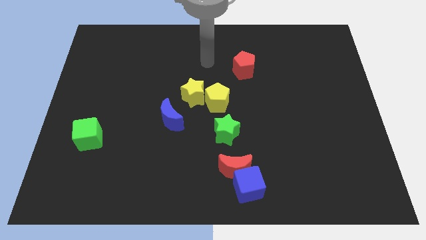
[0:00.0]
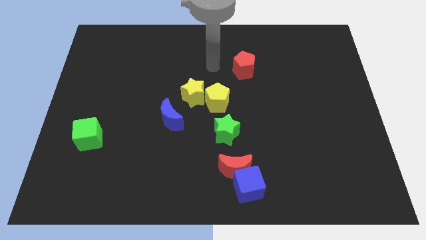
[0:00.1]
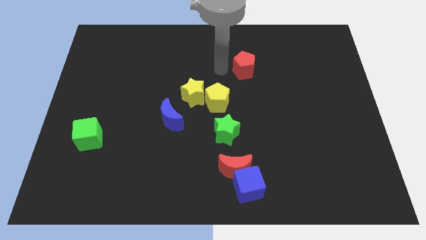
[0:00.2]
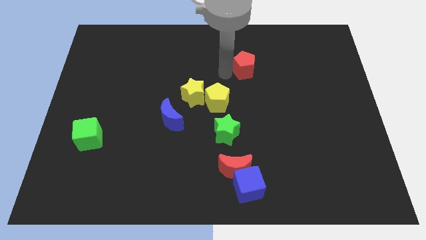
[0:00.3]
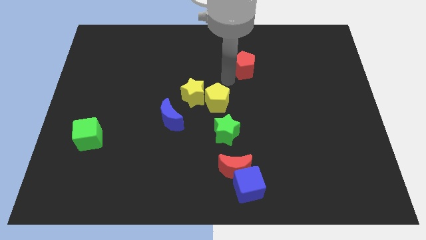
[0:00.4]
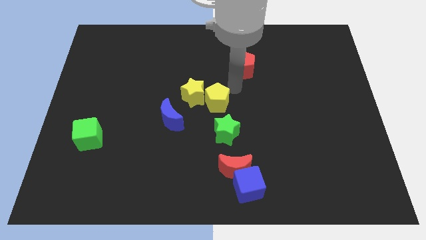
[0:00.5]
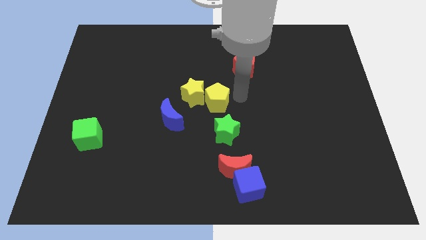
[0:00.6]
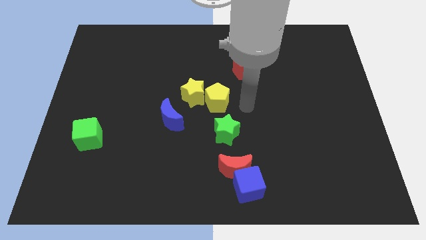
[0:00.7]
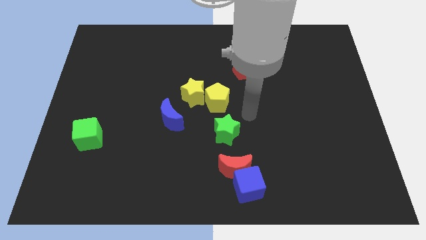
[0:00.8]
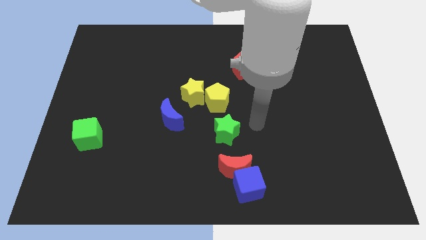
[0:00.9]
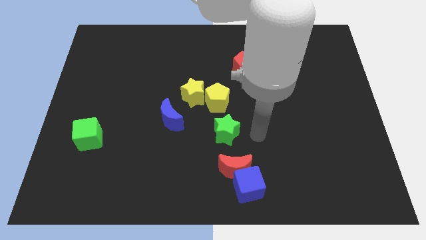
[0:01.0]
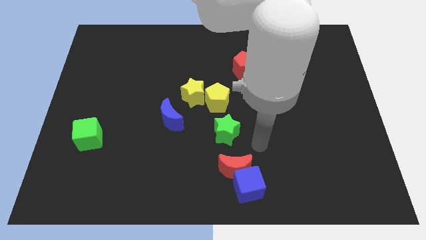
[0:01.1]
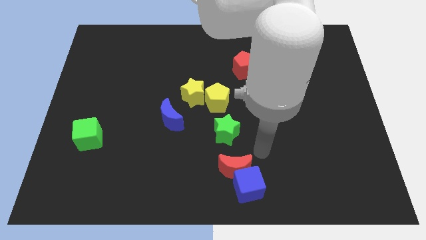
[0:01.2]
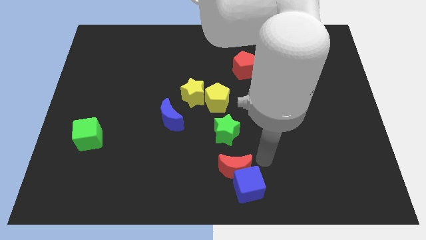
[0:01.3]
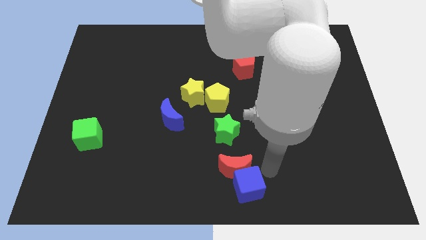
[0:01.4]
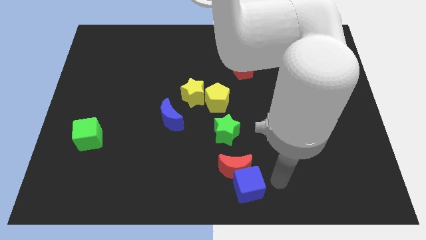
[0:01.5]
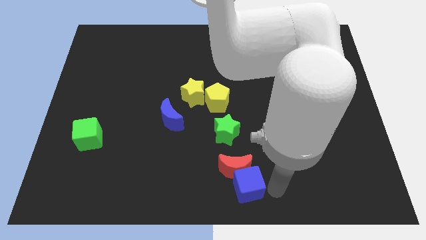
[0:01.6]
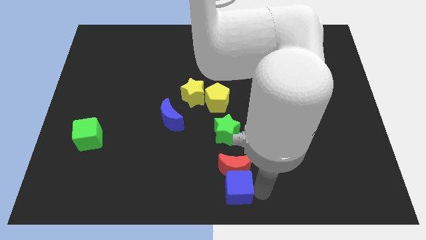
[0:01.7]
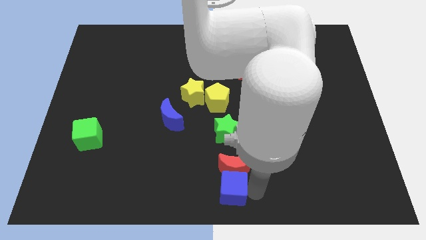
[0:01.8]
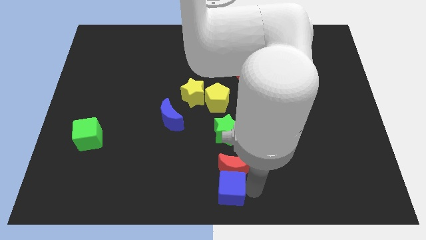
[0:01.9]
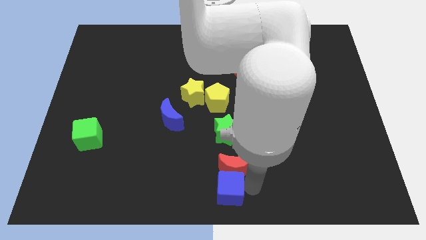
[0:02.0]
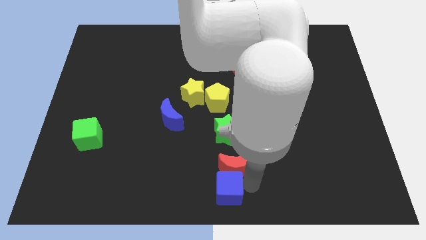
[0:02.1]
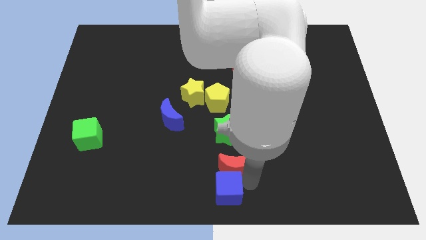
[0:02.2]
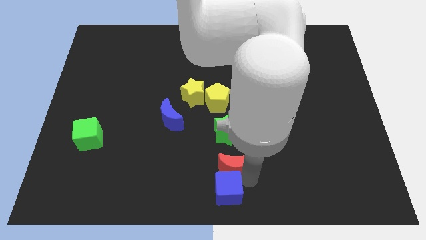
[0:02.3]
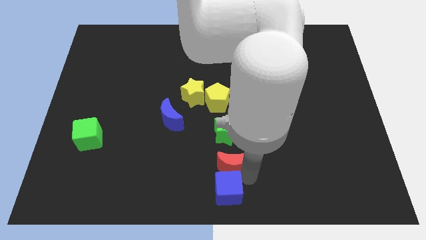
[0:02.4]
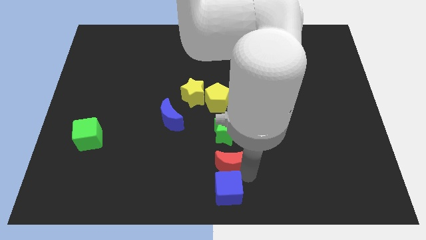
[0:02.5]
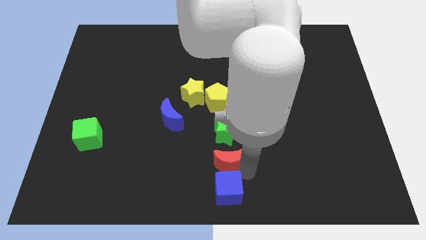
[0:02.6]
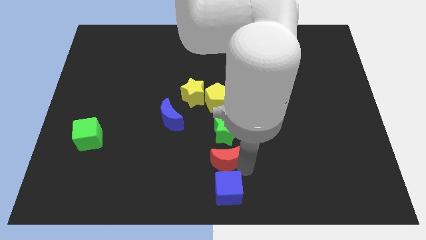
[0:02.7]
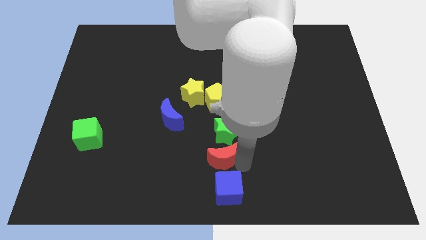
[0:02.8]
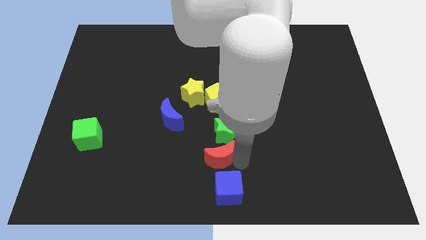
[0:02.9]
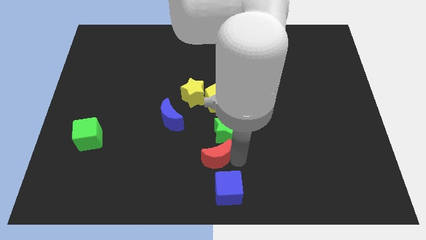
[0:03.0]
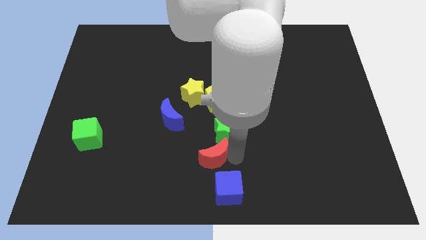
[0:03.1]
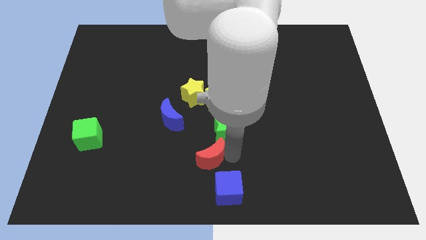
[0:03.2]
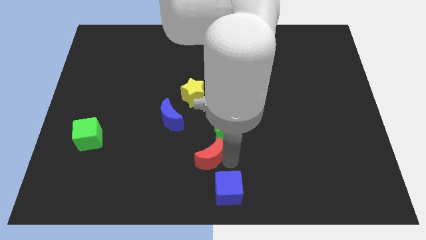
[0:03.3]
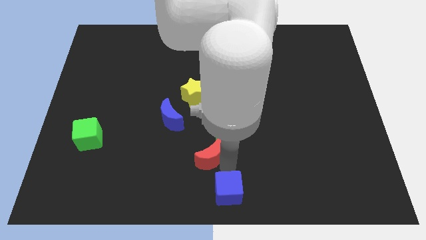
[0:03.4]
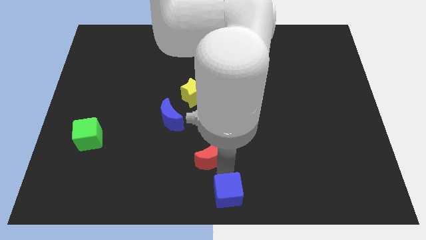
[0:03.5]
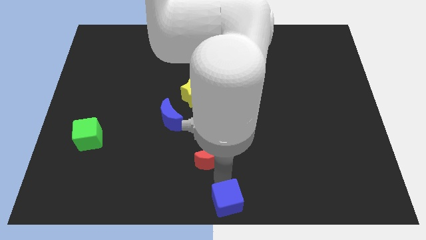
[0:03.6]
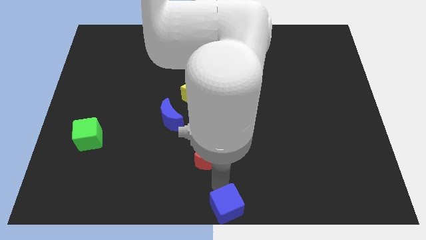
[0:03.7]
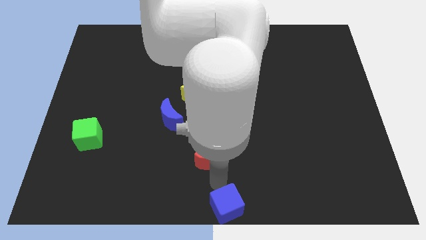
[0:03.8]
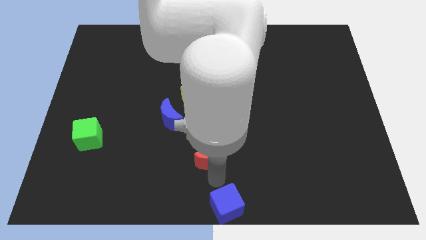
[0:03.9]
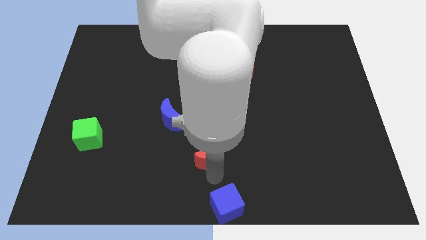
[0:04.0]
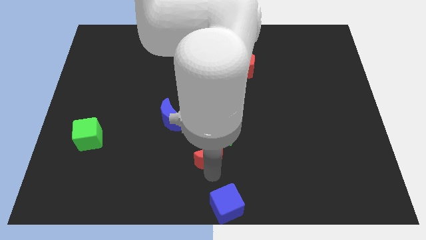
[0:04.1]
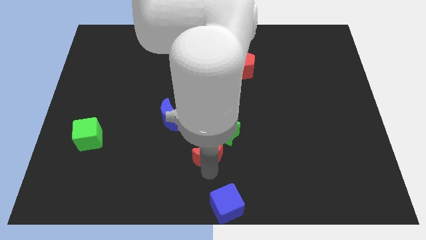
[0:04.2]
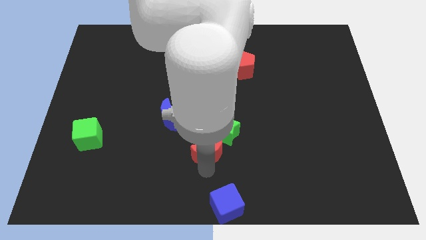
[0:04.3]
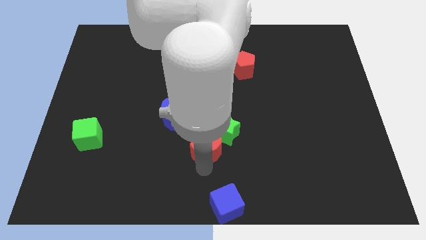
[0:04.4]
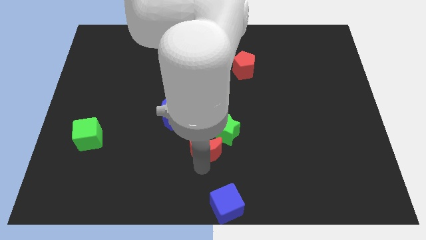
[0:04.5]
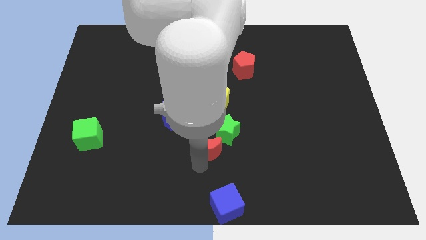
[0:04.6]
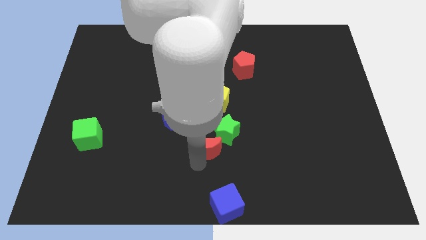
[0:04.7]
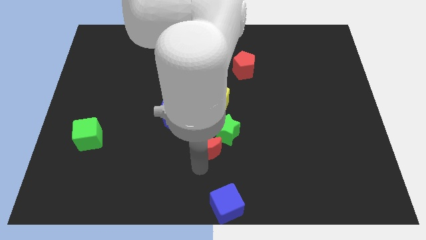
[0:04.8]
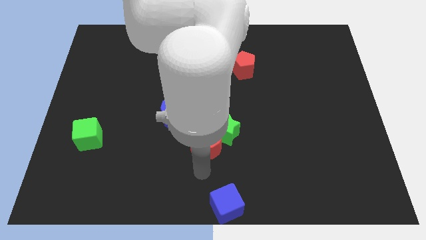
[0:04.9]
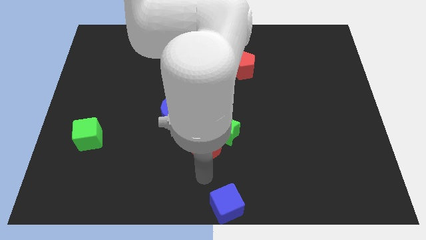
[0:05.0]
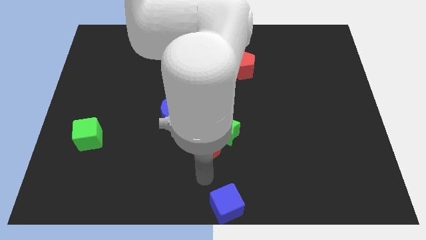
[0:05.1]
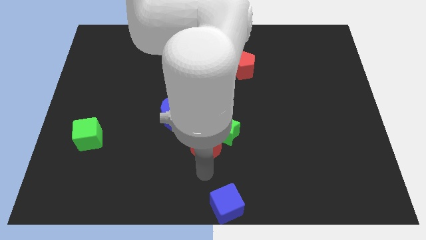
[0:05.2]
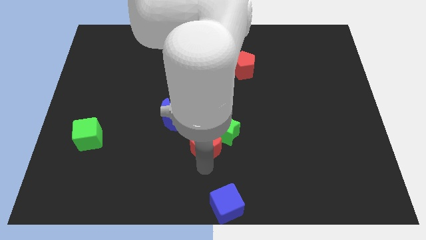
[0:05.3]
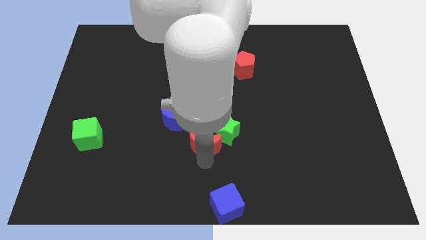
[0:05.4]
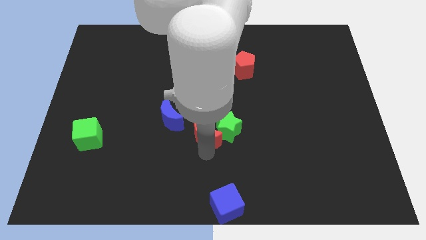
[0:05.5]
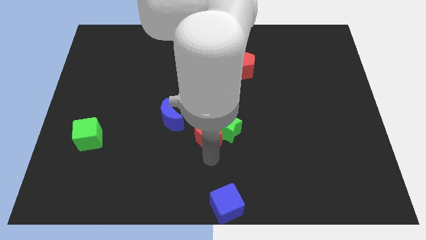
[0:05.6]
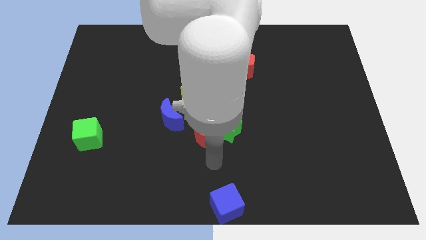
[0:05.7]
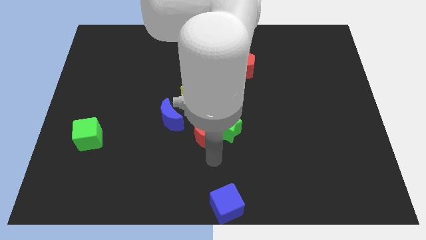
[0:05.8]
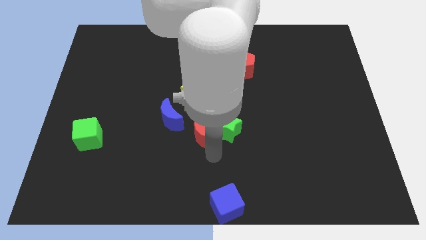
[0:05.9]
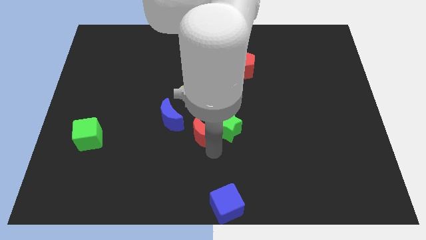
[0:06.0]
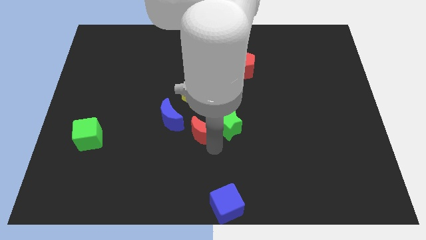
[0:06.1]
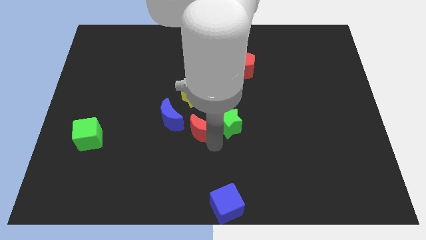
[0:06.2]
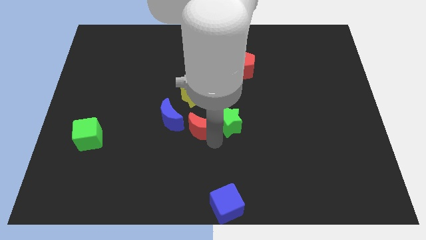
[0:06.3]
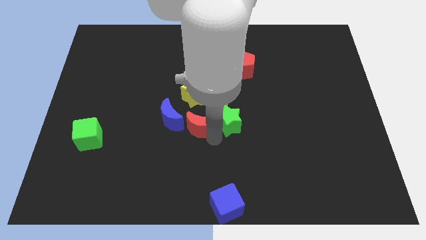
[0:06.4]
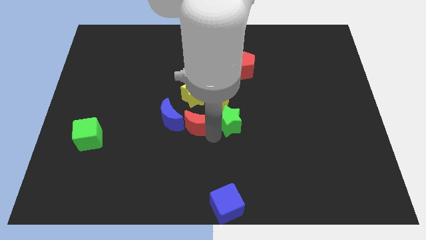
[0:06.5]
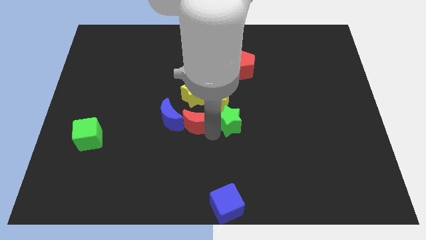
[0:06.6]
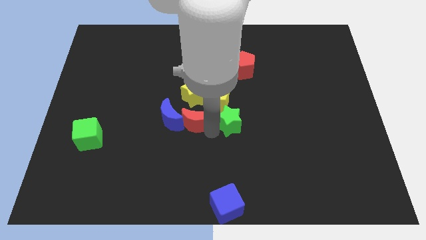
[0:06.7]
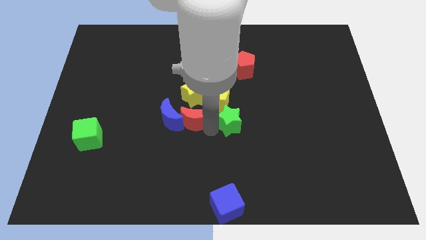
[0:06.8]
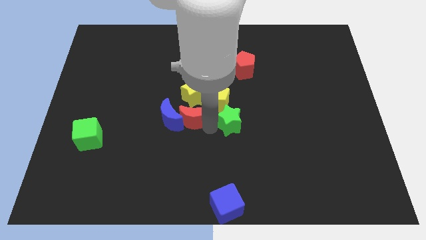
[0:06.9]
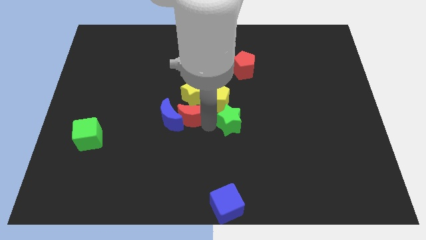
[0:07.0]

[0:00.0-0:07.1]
move the red moon close to the yellow star
